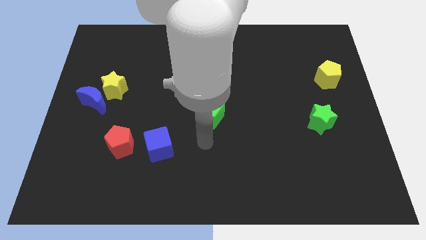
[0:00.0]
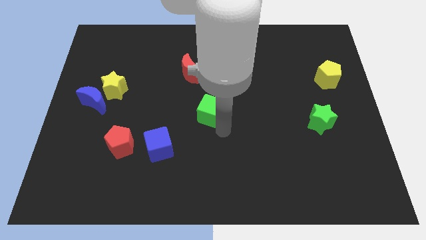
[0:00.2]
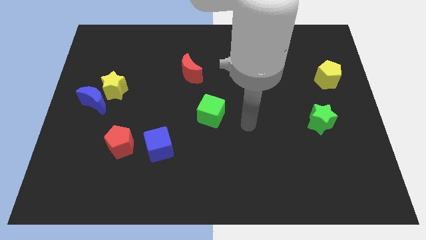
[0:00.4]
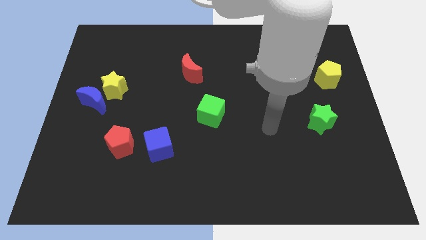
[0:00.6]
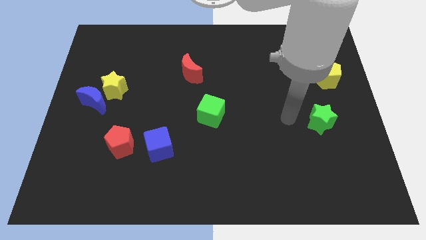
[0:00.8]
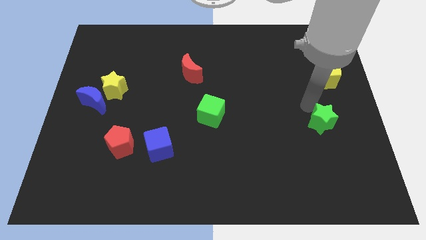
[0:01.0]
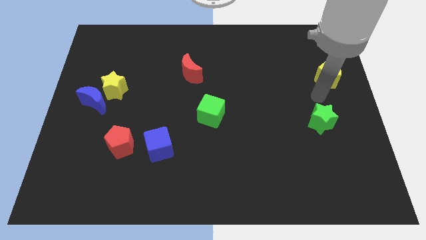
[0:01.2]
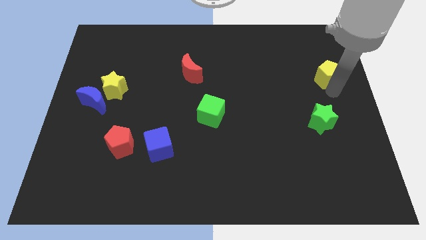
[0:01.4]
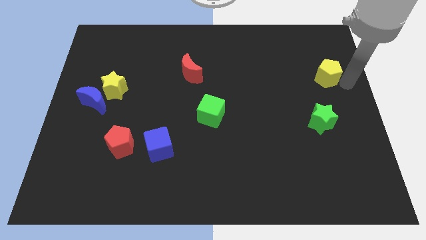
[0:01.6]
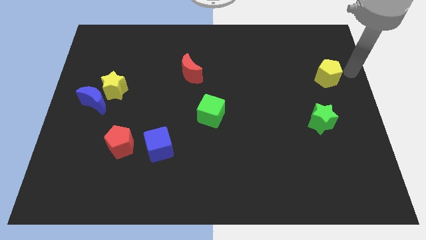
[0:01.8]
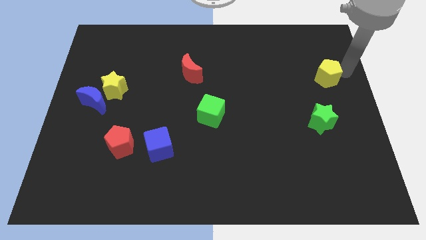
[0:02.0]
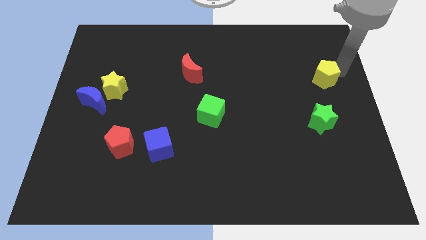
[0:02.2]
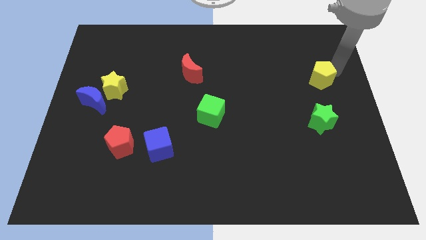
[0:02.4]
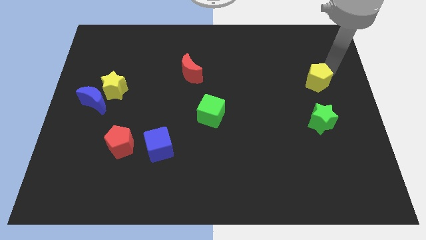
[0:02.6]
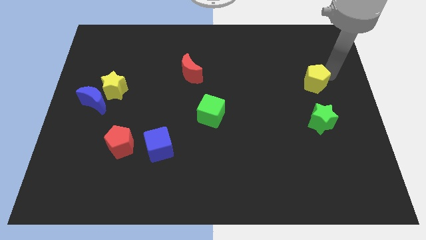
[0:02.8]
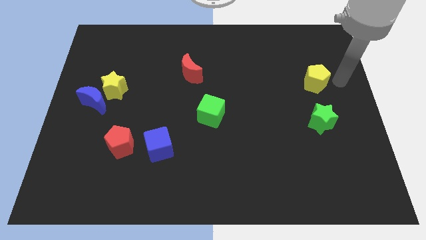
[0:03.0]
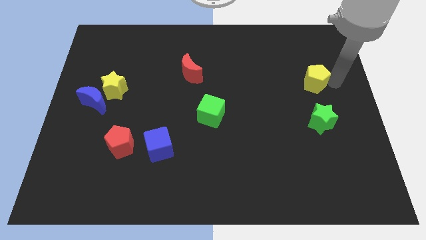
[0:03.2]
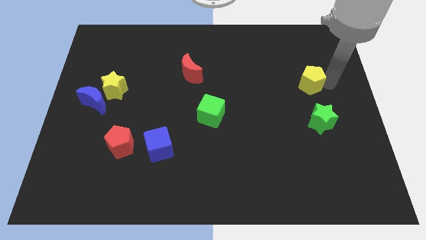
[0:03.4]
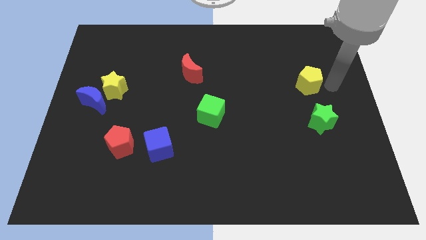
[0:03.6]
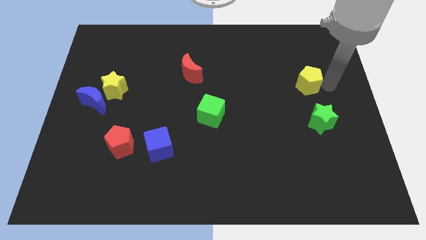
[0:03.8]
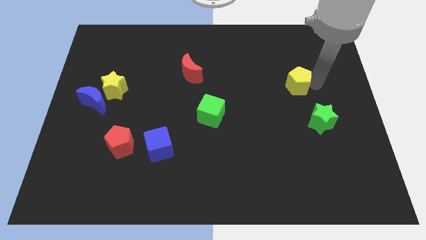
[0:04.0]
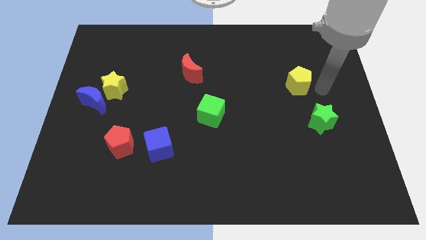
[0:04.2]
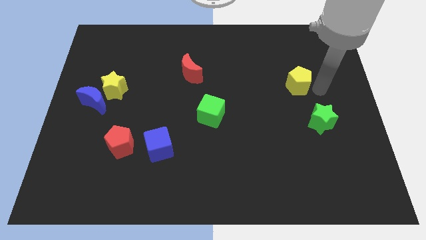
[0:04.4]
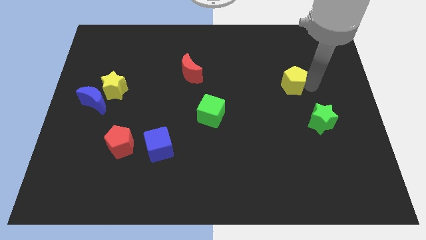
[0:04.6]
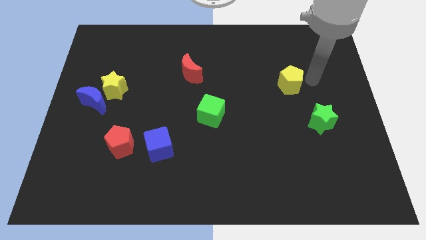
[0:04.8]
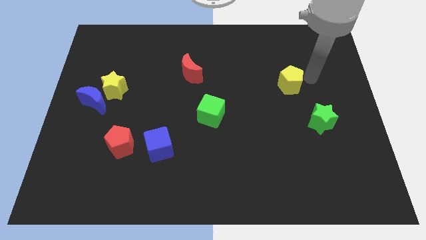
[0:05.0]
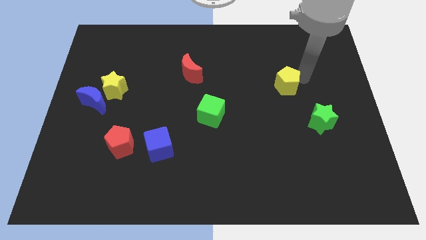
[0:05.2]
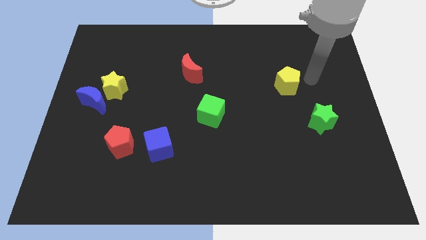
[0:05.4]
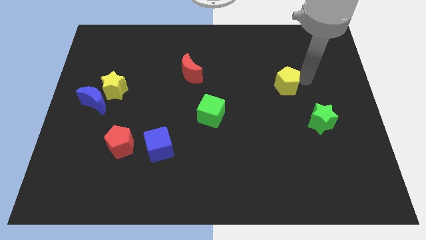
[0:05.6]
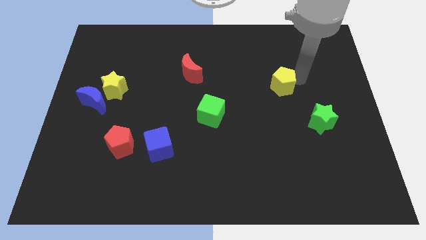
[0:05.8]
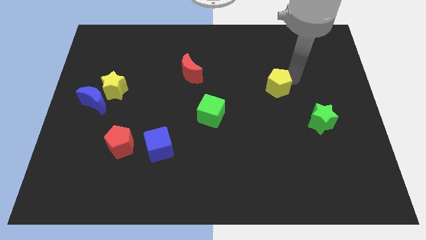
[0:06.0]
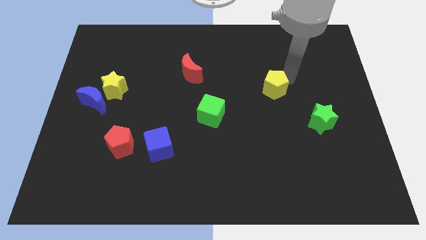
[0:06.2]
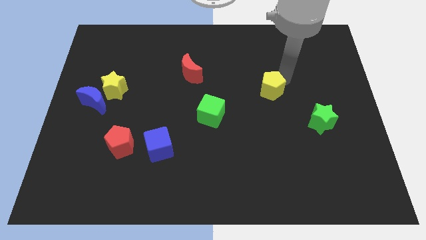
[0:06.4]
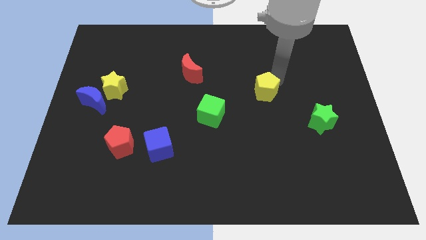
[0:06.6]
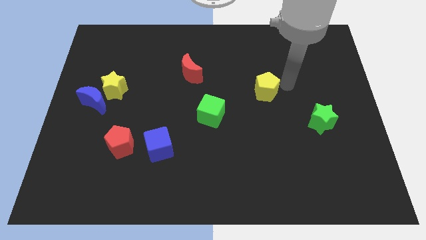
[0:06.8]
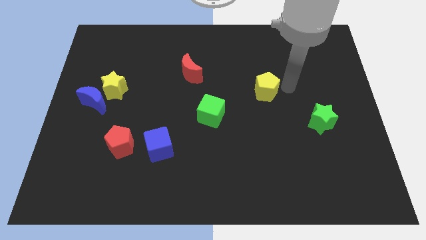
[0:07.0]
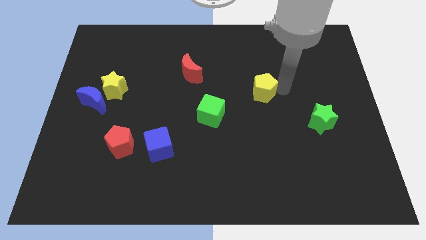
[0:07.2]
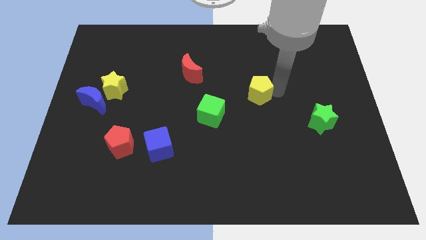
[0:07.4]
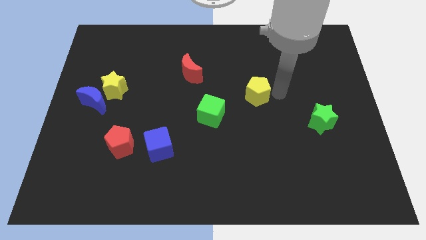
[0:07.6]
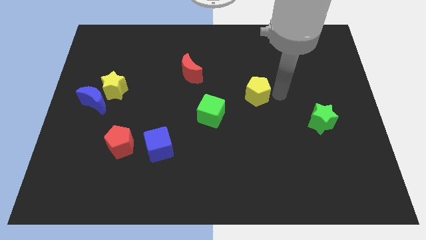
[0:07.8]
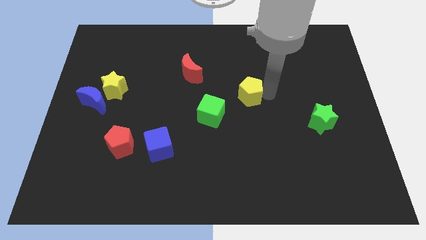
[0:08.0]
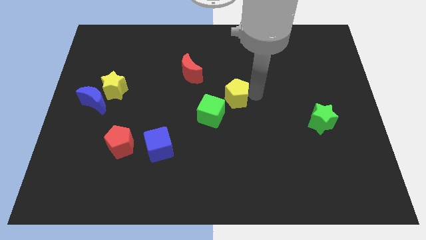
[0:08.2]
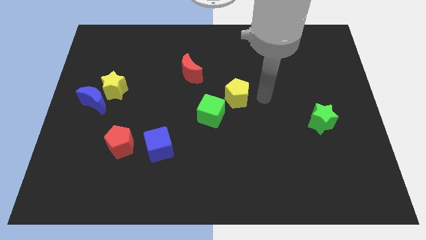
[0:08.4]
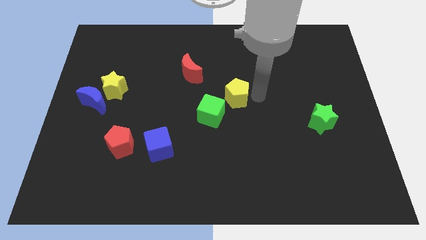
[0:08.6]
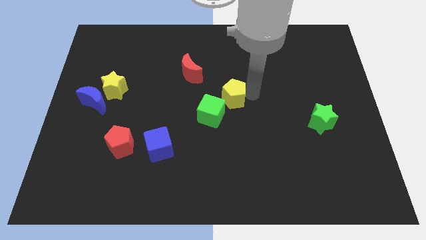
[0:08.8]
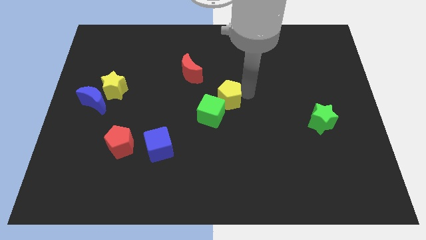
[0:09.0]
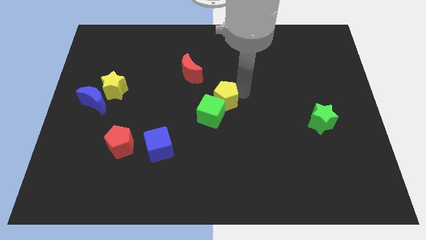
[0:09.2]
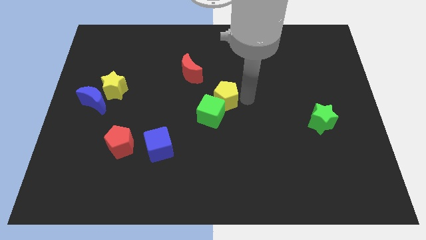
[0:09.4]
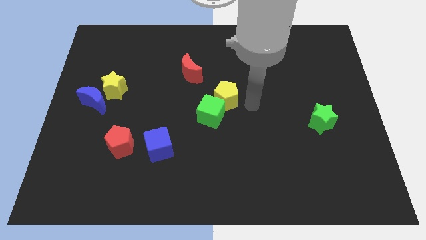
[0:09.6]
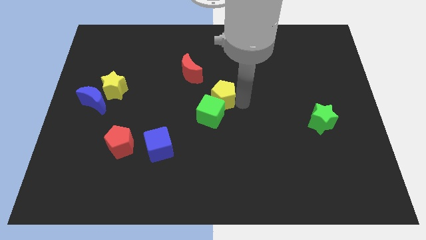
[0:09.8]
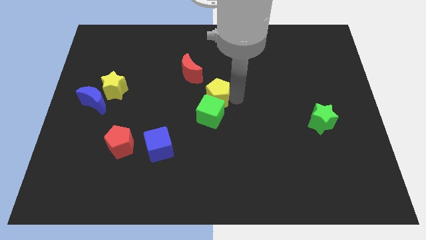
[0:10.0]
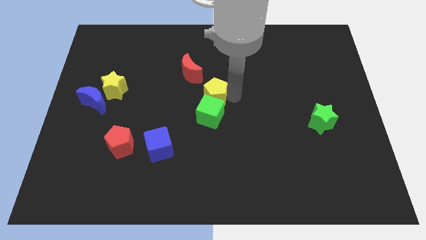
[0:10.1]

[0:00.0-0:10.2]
move the yellow pentagon to the top left of the green cube

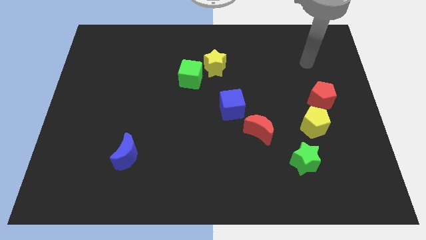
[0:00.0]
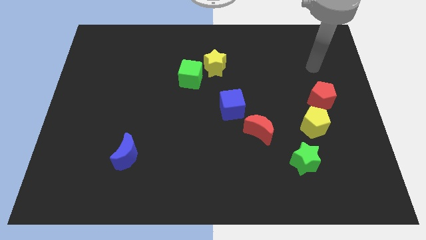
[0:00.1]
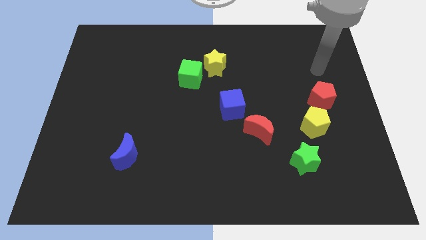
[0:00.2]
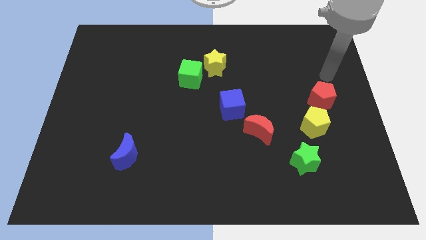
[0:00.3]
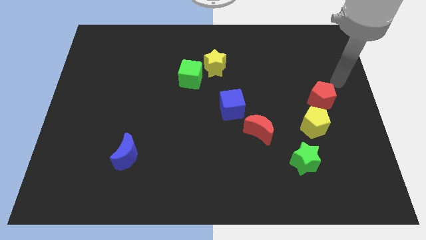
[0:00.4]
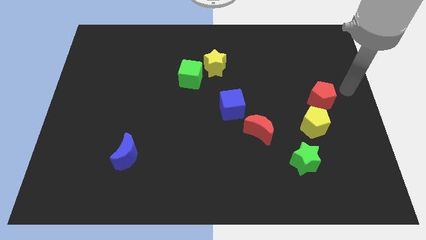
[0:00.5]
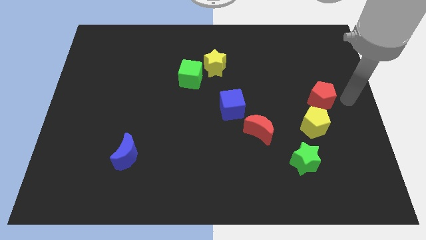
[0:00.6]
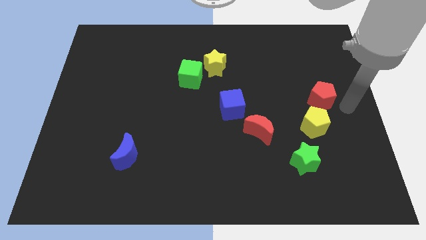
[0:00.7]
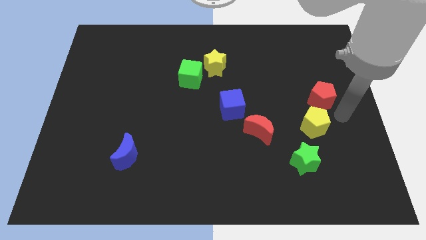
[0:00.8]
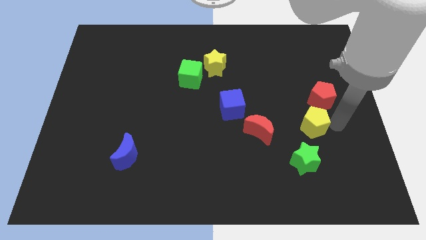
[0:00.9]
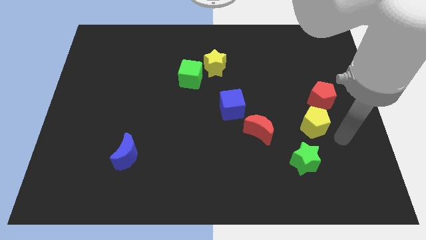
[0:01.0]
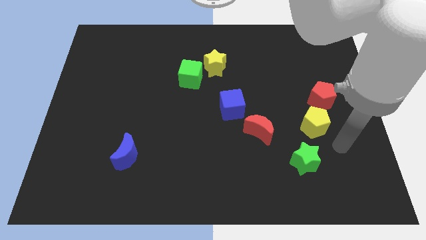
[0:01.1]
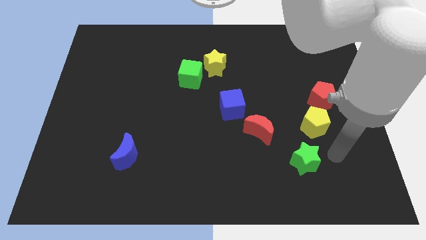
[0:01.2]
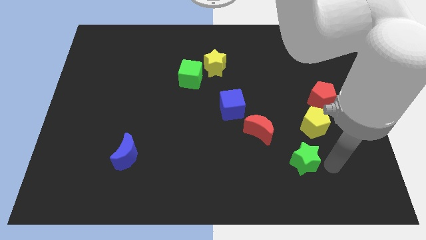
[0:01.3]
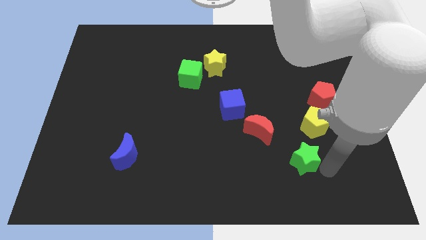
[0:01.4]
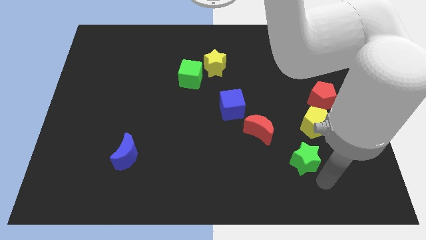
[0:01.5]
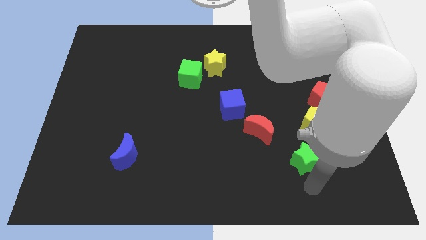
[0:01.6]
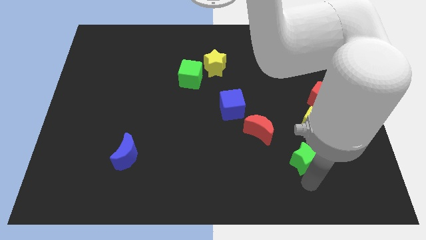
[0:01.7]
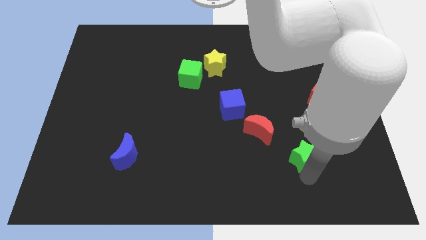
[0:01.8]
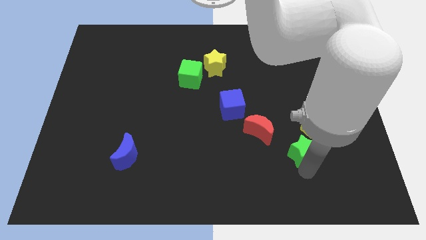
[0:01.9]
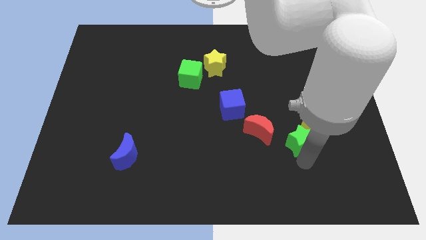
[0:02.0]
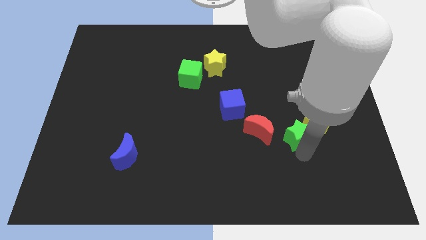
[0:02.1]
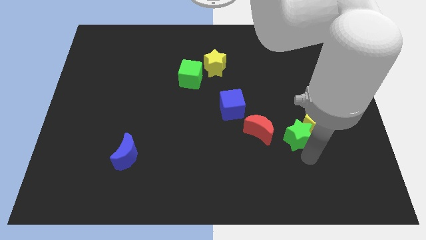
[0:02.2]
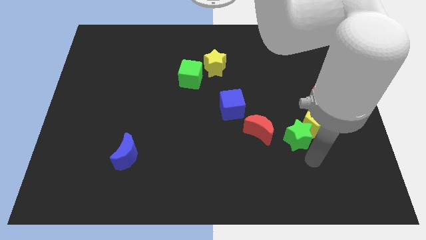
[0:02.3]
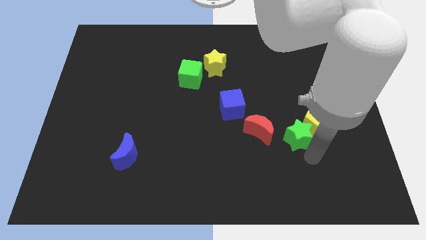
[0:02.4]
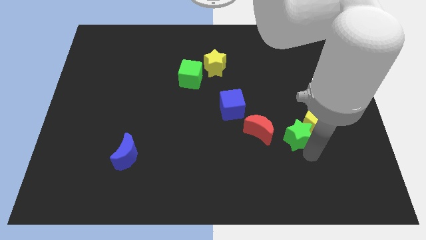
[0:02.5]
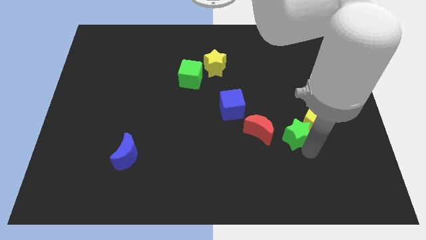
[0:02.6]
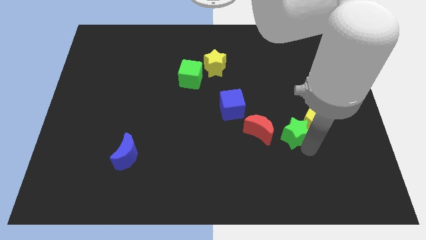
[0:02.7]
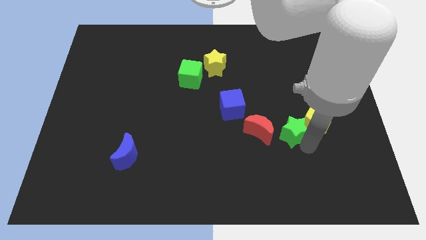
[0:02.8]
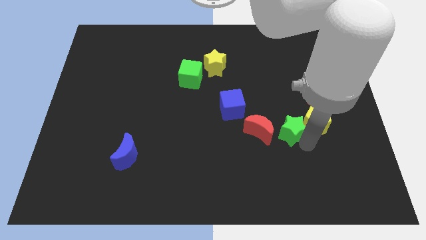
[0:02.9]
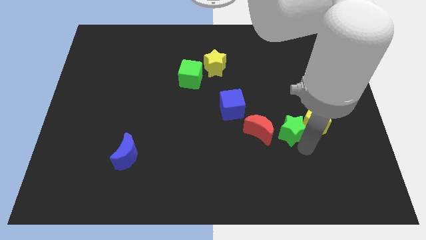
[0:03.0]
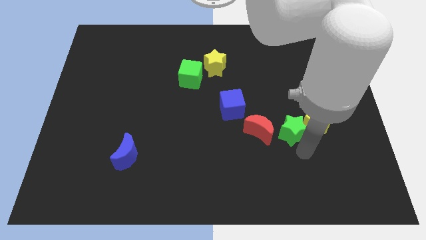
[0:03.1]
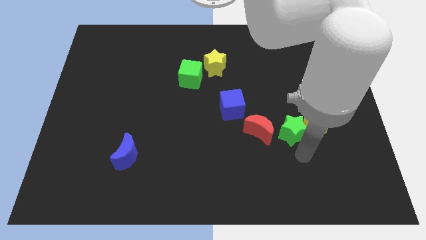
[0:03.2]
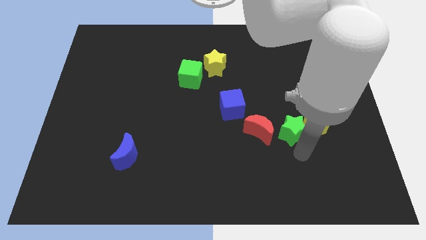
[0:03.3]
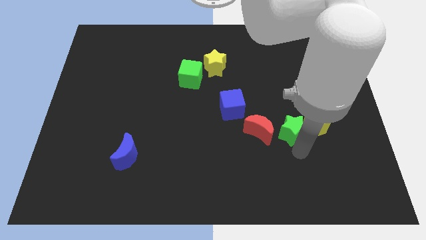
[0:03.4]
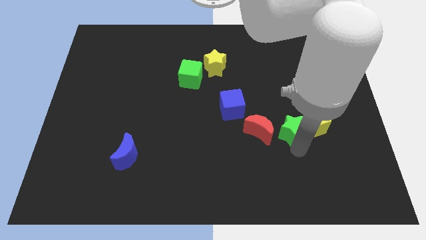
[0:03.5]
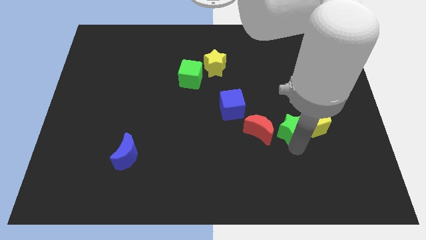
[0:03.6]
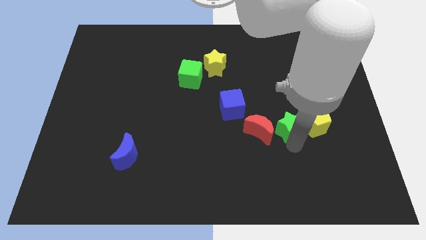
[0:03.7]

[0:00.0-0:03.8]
push the green star to the top left of the yellow pentagon
